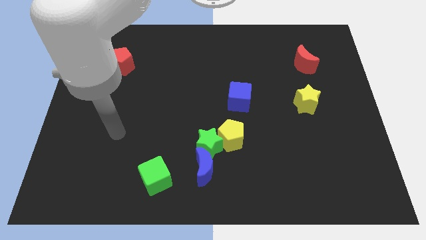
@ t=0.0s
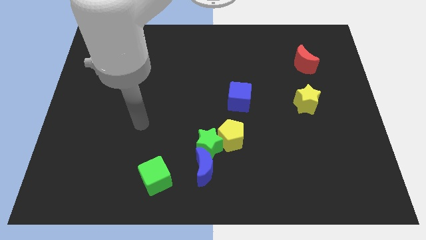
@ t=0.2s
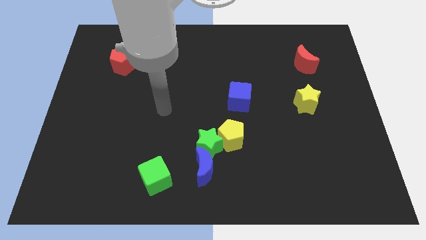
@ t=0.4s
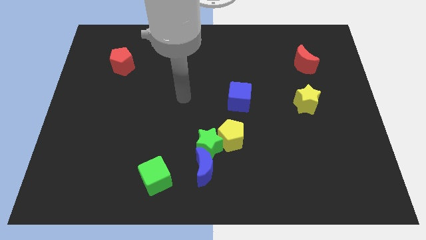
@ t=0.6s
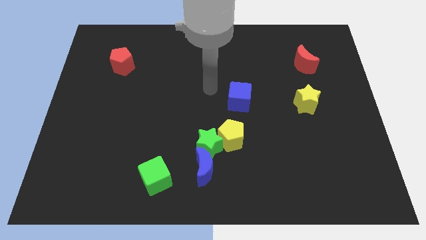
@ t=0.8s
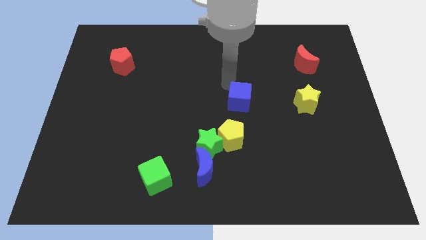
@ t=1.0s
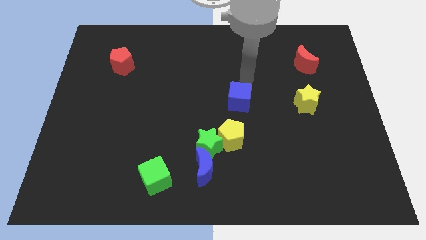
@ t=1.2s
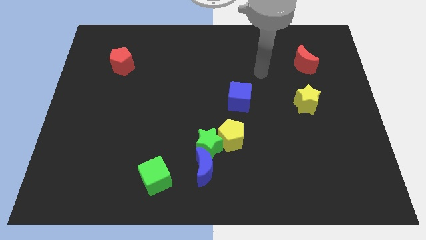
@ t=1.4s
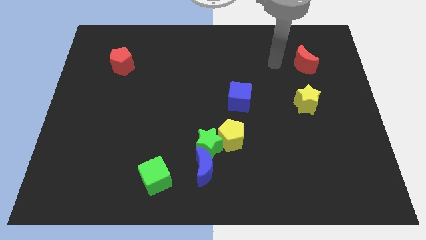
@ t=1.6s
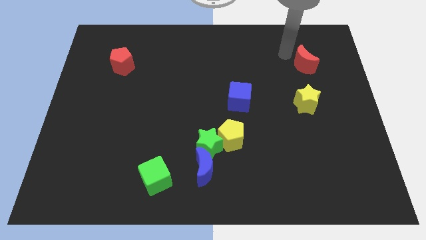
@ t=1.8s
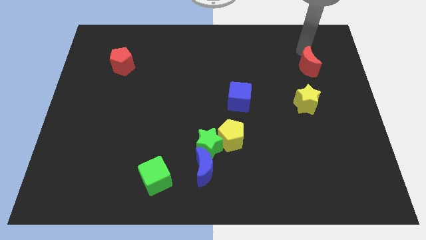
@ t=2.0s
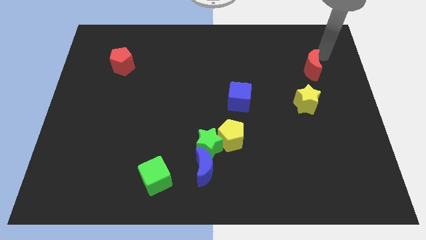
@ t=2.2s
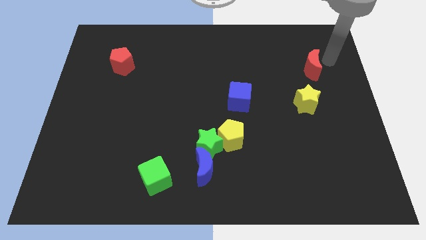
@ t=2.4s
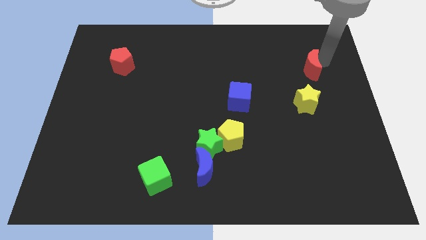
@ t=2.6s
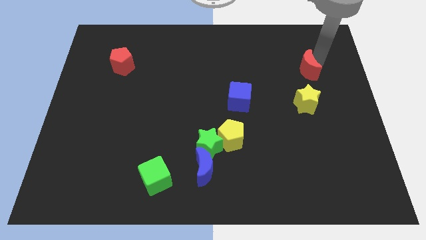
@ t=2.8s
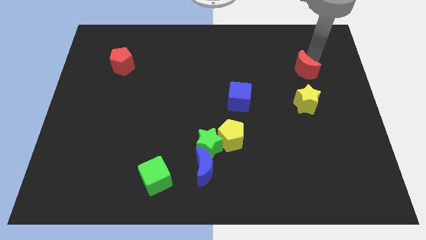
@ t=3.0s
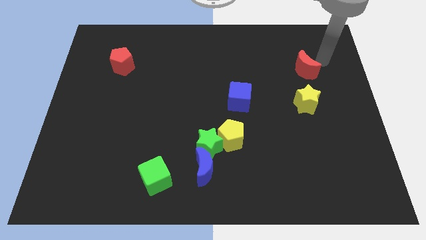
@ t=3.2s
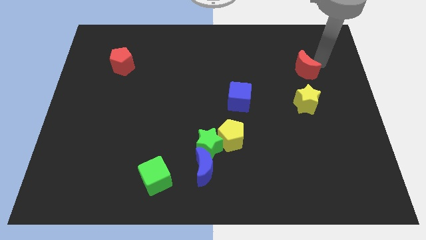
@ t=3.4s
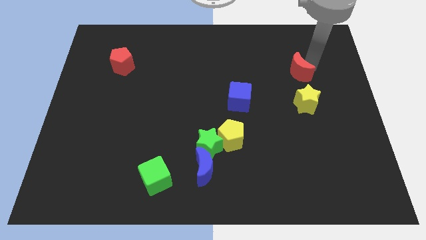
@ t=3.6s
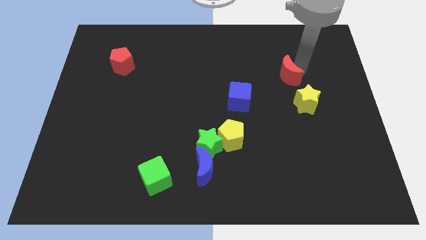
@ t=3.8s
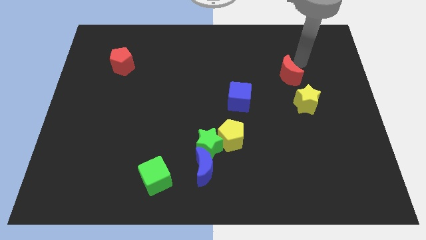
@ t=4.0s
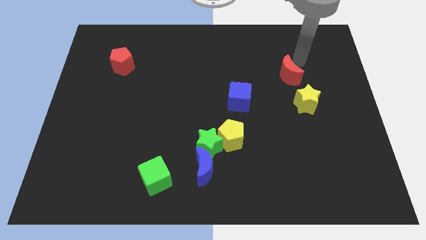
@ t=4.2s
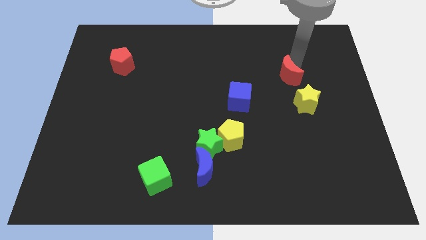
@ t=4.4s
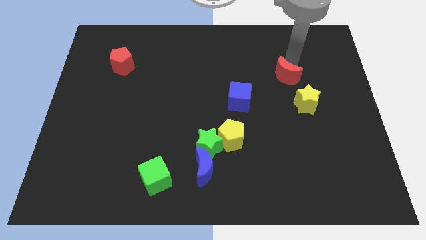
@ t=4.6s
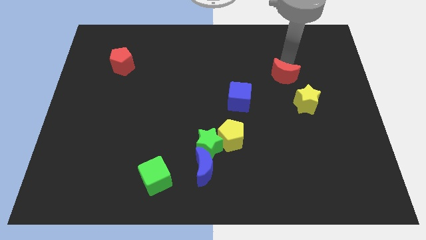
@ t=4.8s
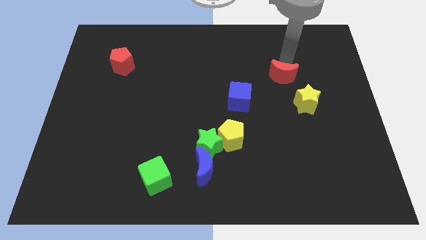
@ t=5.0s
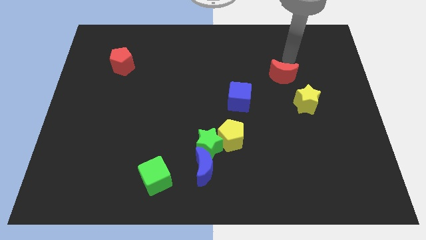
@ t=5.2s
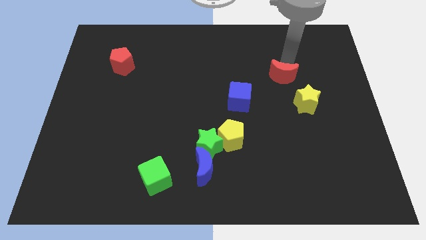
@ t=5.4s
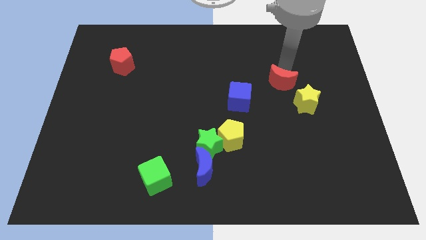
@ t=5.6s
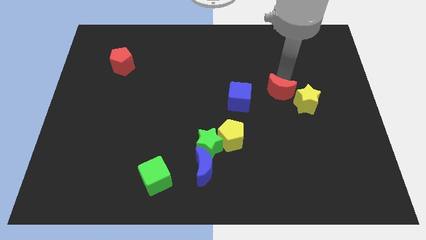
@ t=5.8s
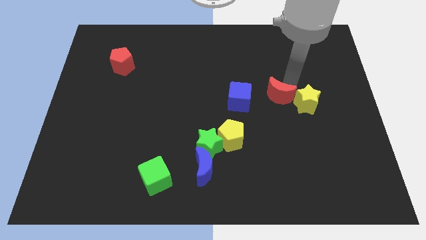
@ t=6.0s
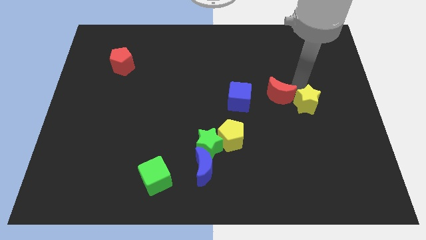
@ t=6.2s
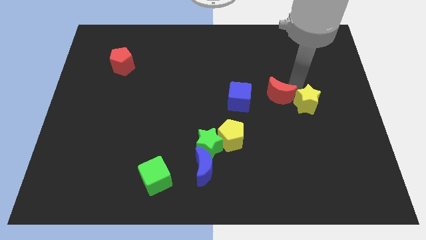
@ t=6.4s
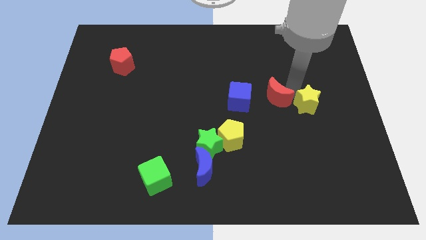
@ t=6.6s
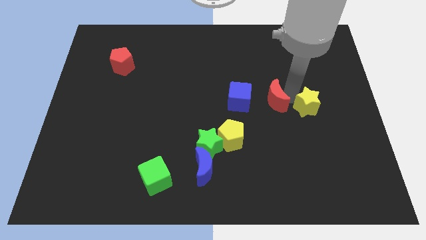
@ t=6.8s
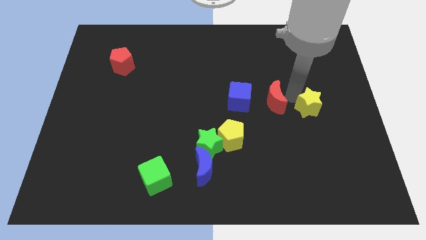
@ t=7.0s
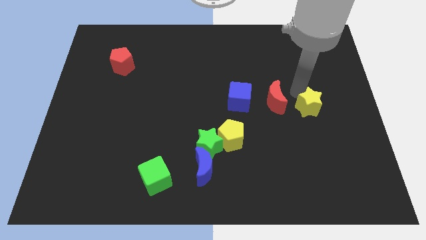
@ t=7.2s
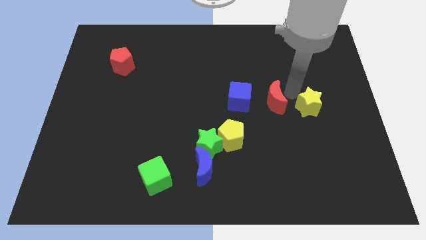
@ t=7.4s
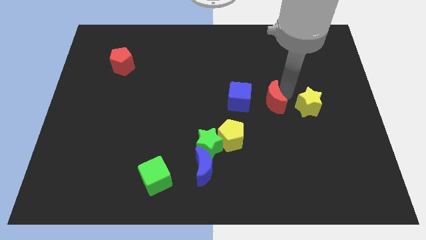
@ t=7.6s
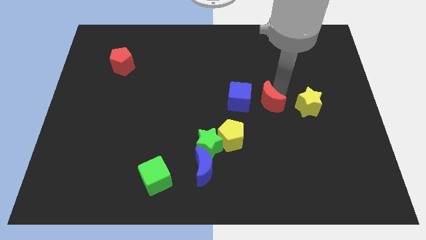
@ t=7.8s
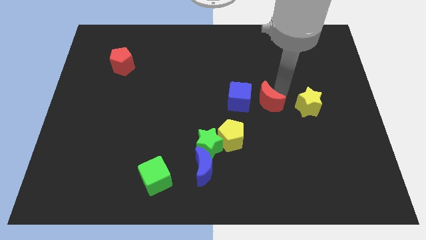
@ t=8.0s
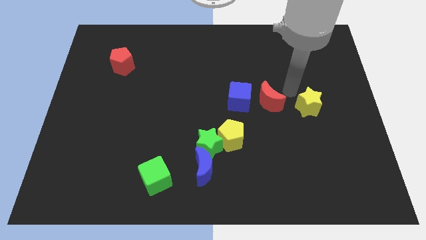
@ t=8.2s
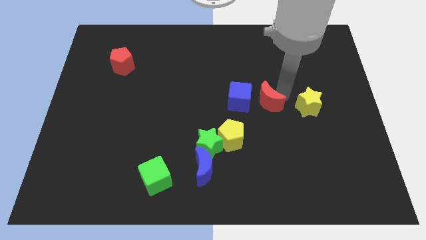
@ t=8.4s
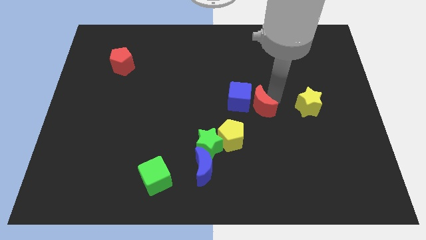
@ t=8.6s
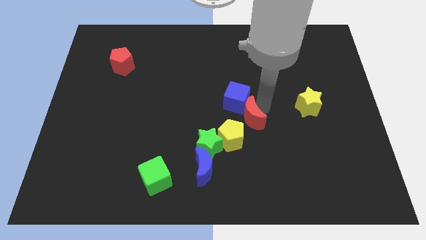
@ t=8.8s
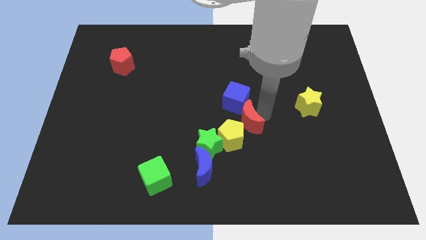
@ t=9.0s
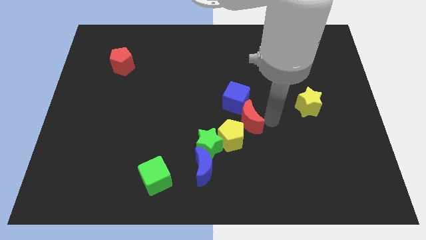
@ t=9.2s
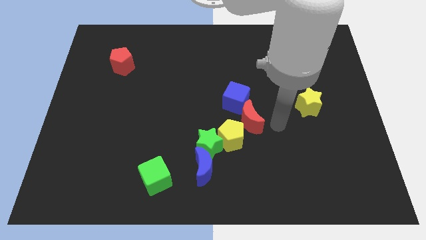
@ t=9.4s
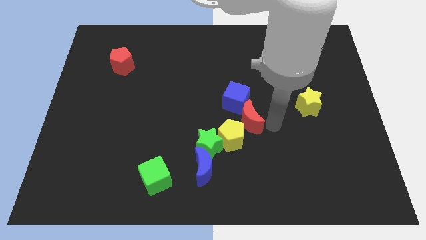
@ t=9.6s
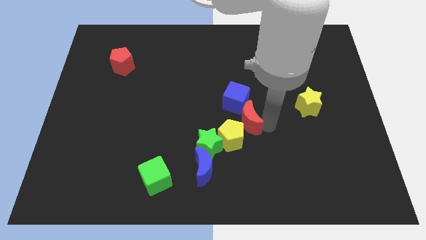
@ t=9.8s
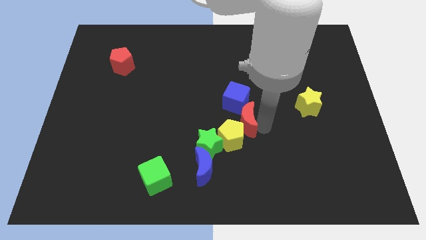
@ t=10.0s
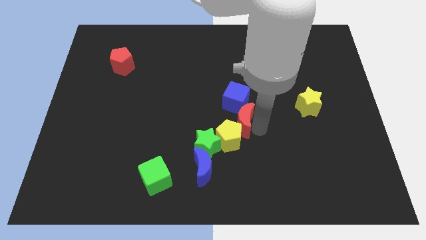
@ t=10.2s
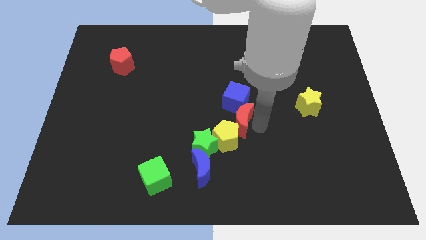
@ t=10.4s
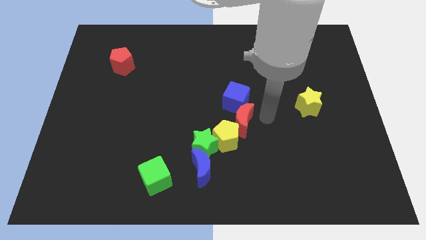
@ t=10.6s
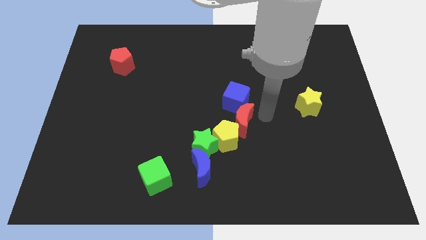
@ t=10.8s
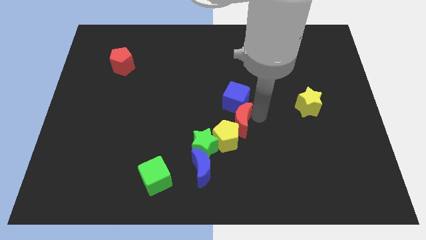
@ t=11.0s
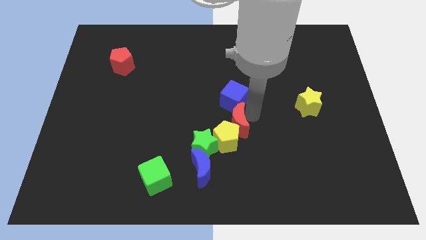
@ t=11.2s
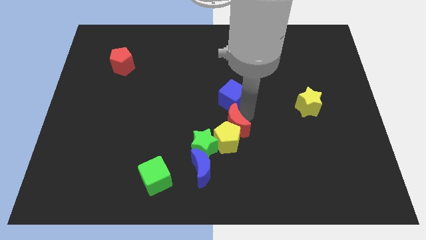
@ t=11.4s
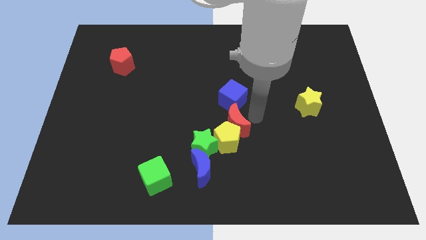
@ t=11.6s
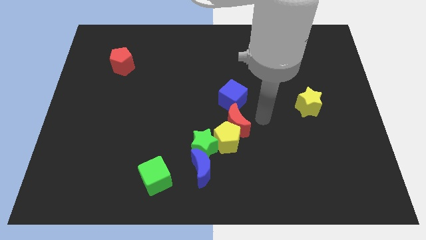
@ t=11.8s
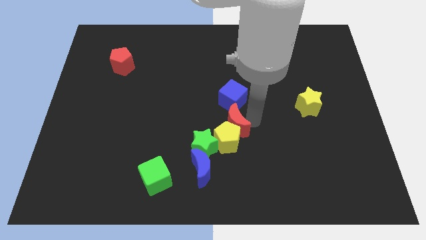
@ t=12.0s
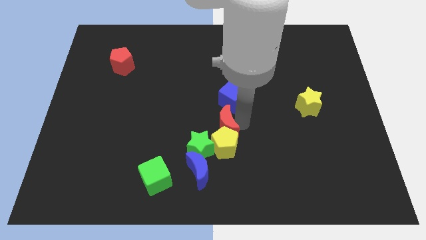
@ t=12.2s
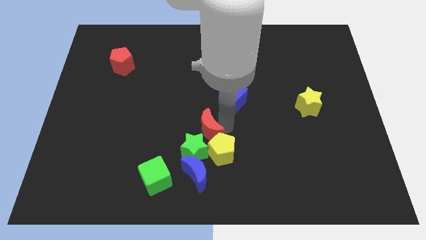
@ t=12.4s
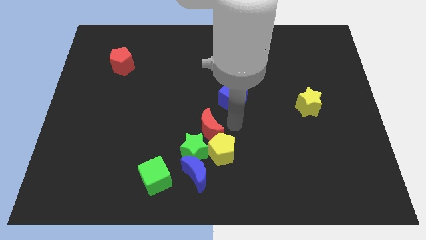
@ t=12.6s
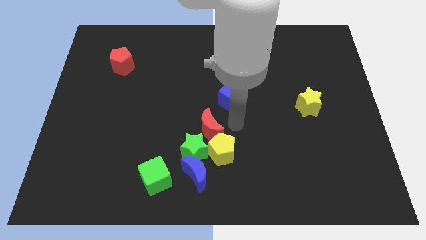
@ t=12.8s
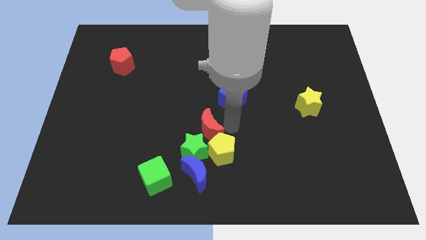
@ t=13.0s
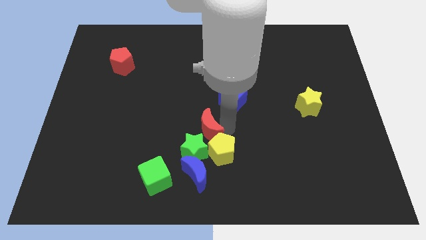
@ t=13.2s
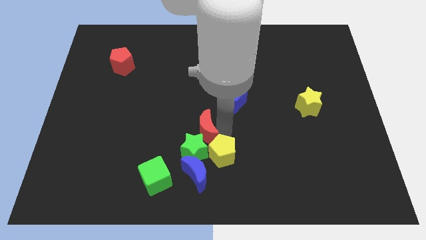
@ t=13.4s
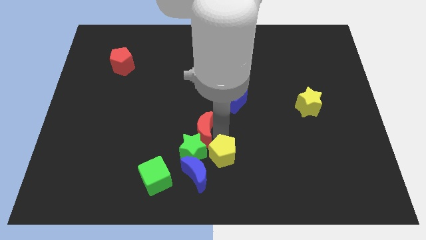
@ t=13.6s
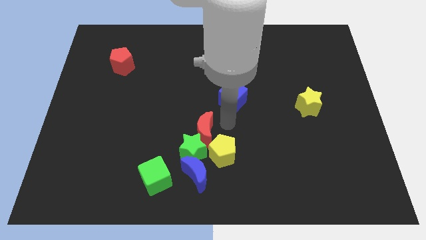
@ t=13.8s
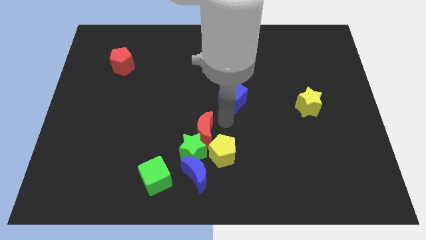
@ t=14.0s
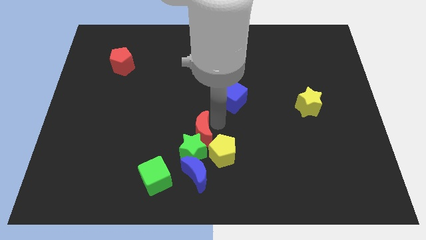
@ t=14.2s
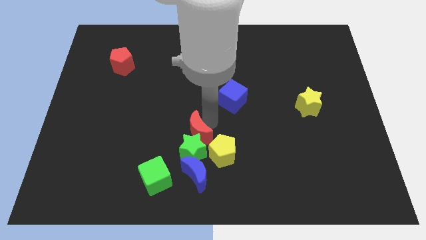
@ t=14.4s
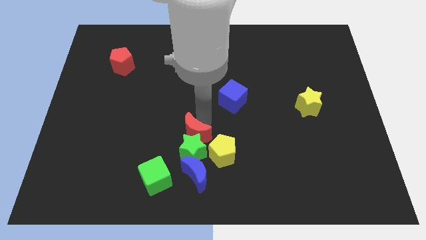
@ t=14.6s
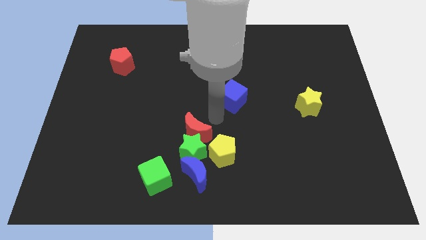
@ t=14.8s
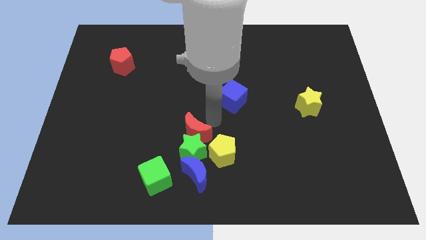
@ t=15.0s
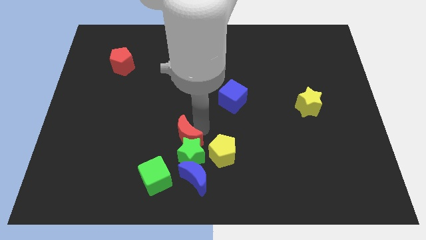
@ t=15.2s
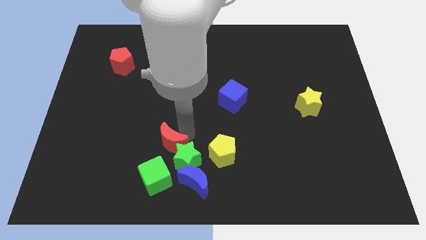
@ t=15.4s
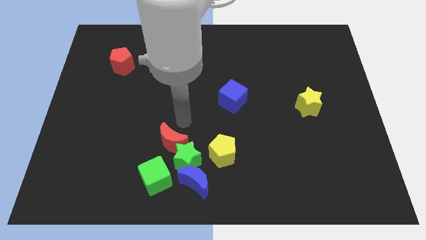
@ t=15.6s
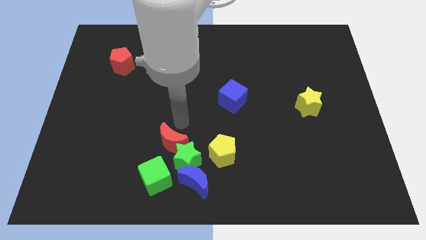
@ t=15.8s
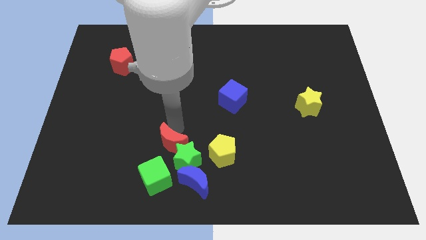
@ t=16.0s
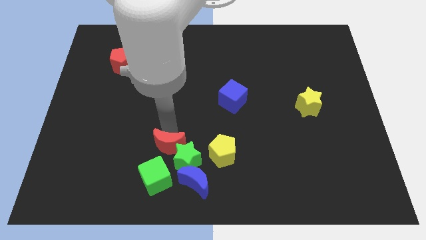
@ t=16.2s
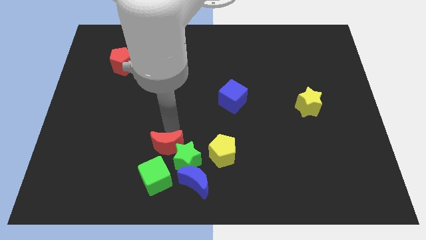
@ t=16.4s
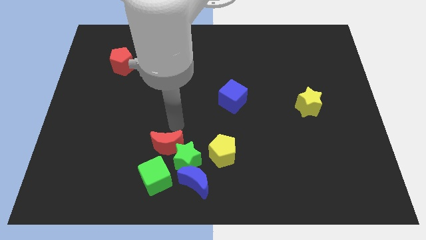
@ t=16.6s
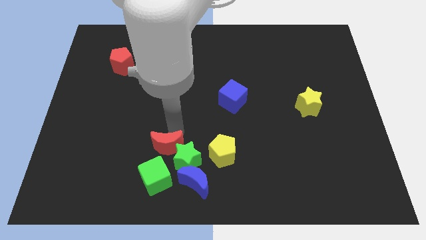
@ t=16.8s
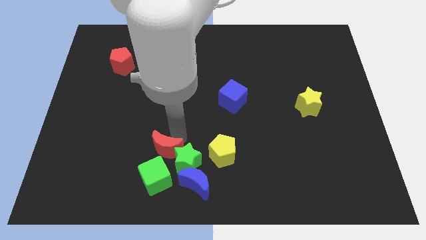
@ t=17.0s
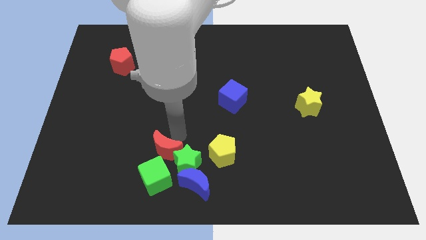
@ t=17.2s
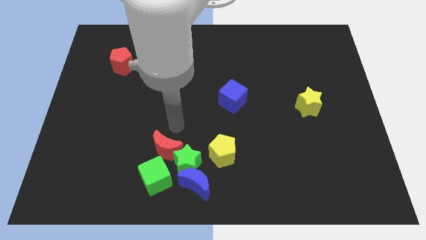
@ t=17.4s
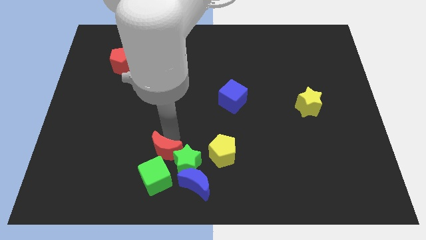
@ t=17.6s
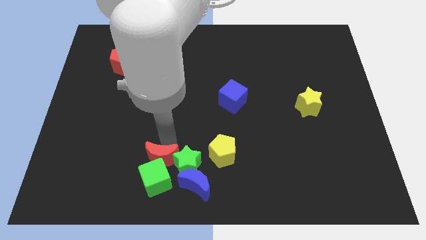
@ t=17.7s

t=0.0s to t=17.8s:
put the red moon towards the green cube
